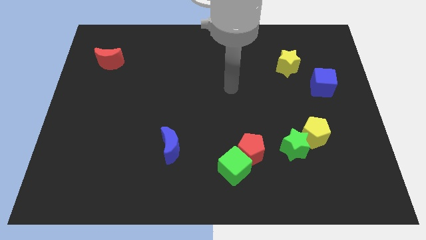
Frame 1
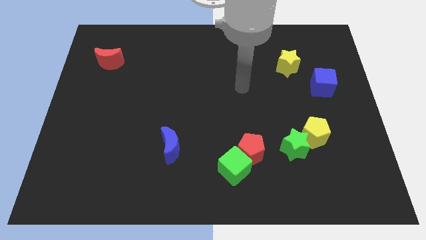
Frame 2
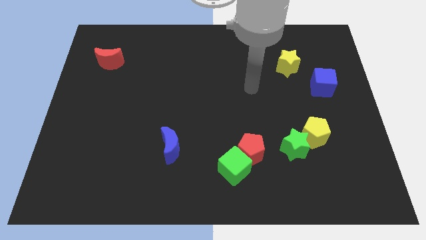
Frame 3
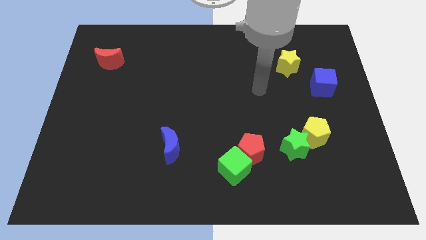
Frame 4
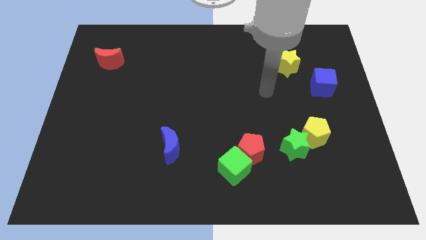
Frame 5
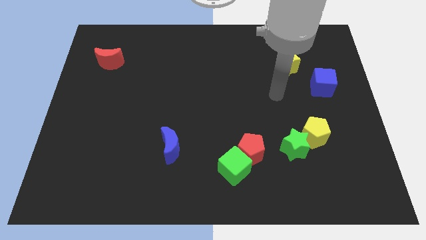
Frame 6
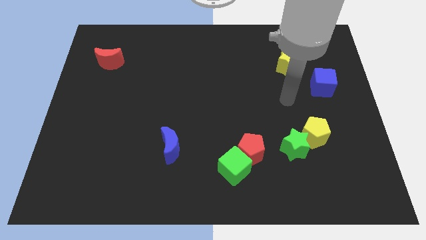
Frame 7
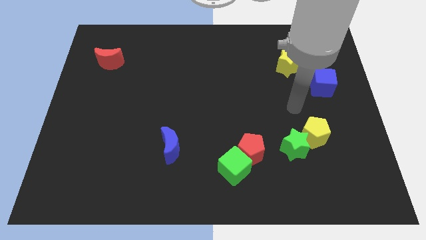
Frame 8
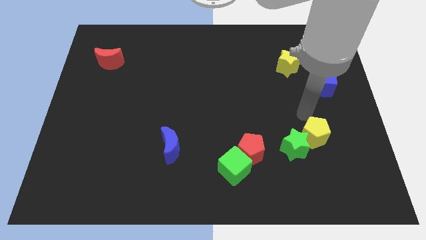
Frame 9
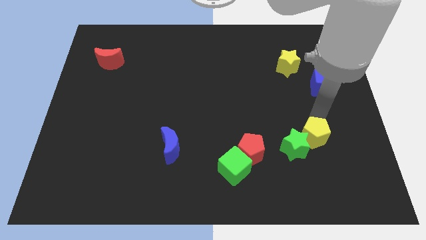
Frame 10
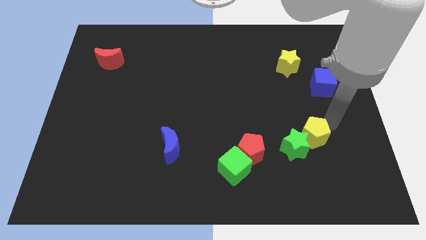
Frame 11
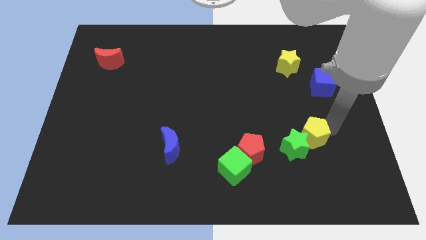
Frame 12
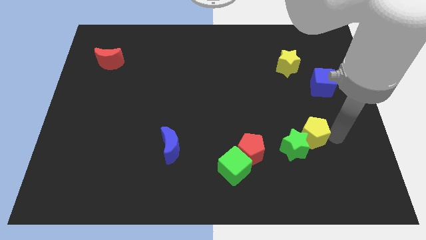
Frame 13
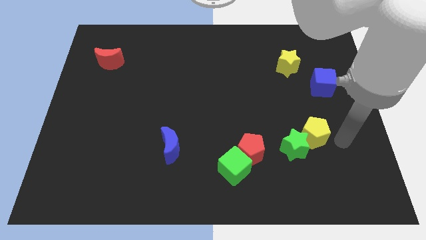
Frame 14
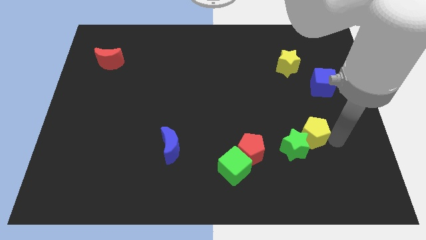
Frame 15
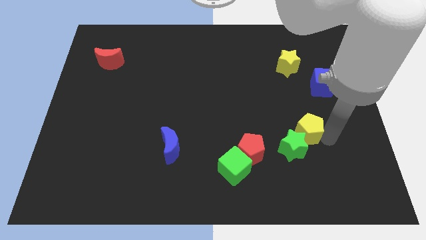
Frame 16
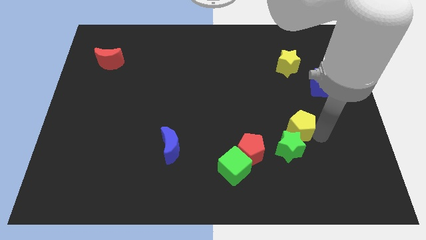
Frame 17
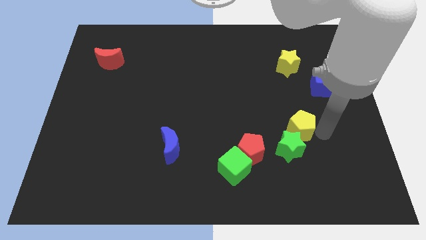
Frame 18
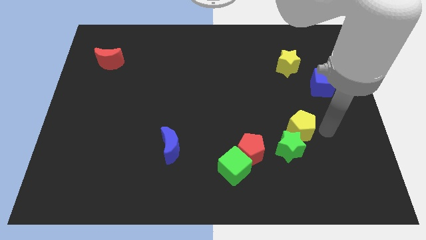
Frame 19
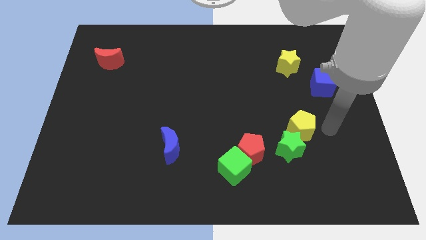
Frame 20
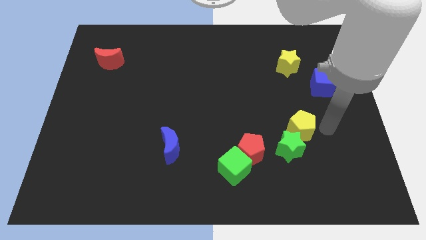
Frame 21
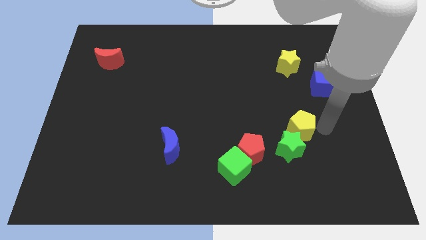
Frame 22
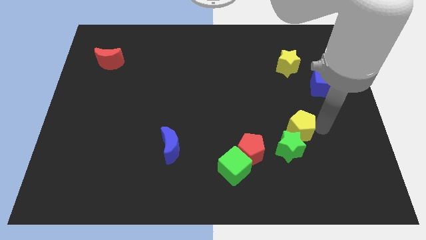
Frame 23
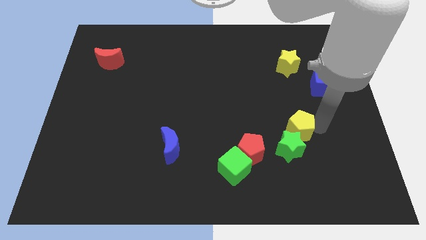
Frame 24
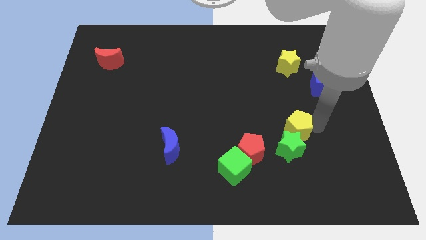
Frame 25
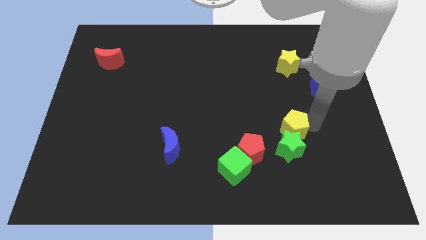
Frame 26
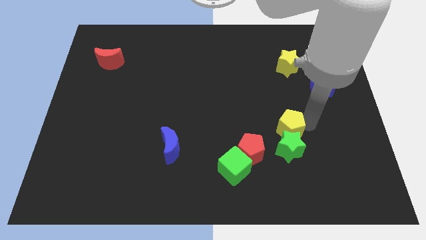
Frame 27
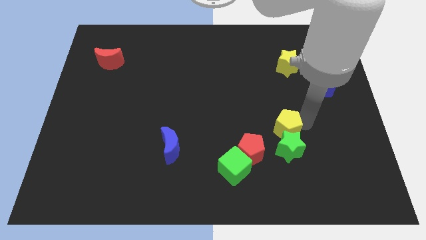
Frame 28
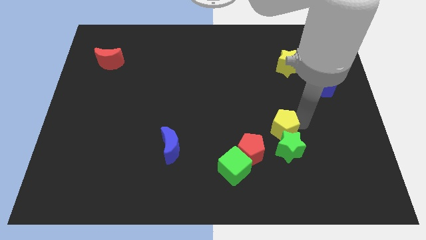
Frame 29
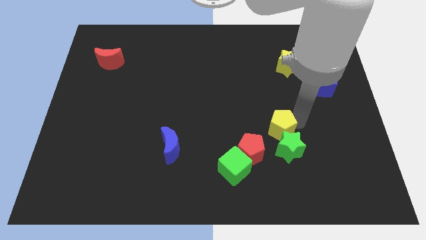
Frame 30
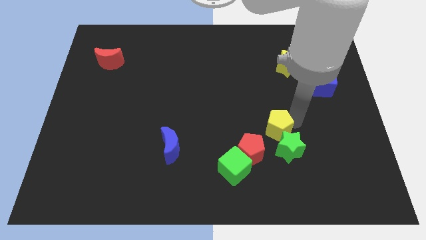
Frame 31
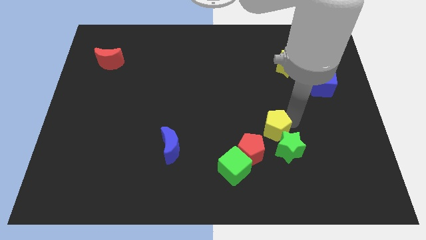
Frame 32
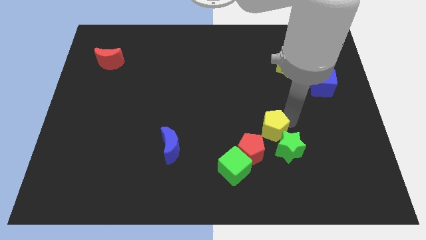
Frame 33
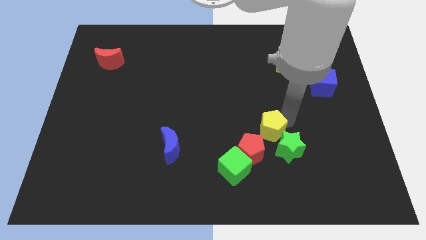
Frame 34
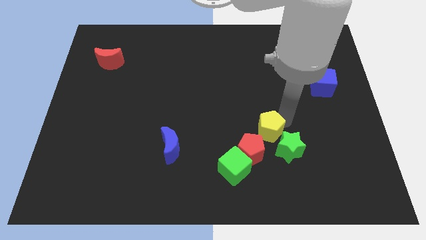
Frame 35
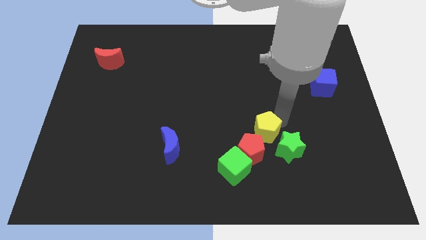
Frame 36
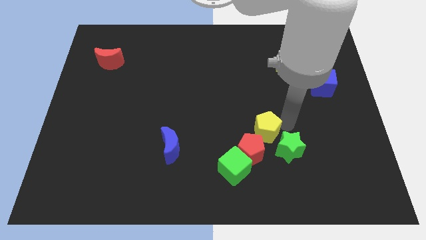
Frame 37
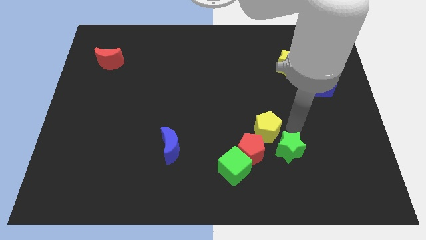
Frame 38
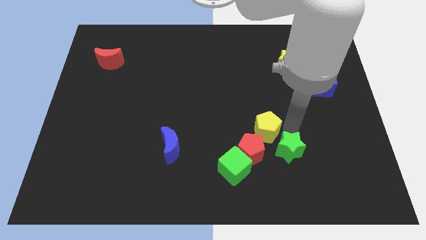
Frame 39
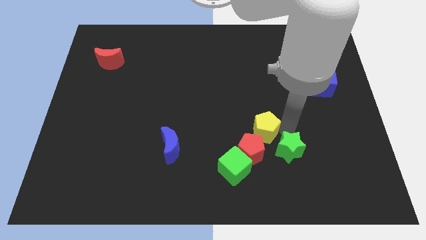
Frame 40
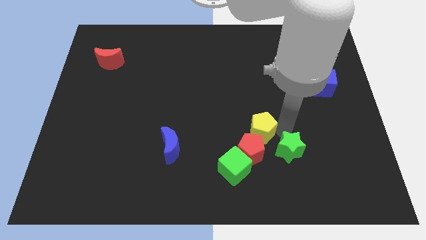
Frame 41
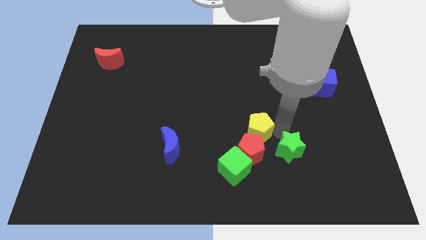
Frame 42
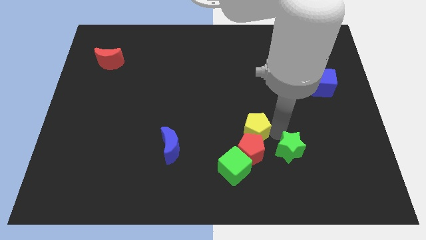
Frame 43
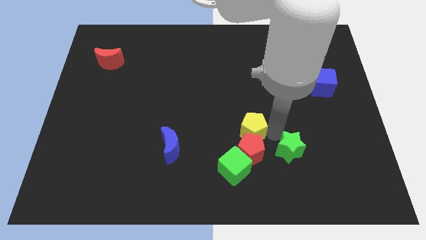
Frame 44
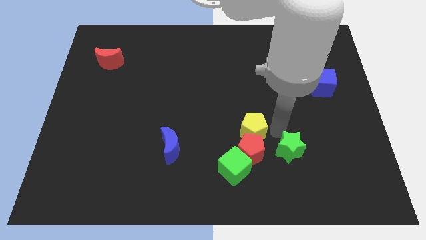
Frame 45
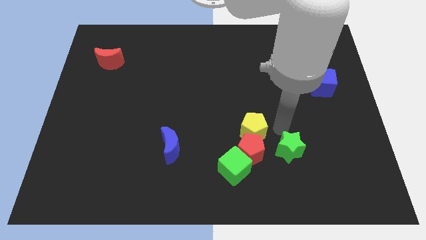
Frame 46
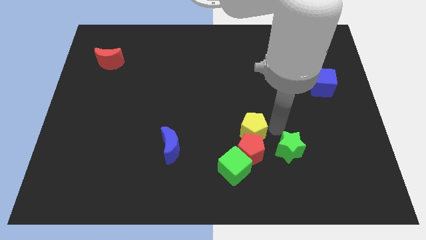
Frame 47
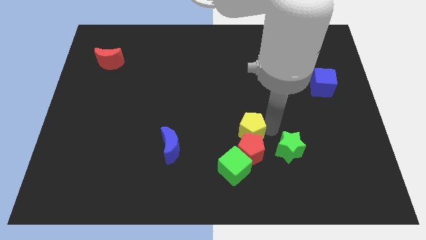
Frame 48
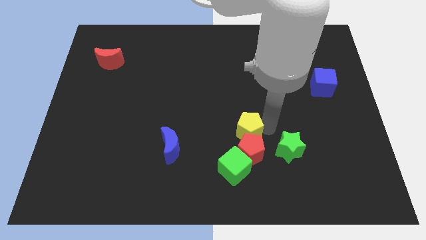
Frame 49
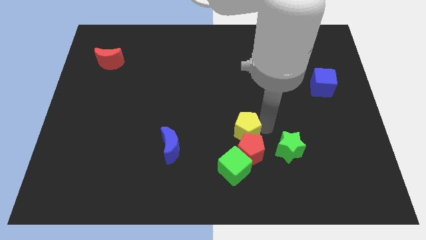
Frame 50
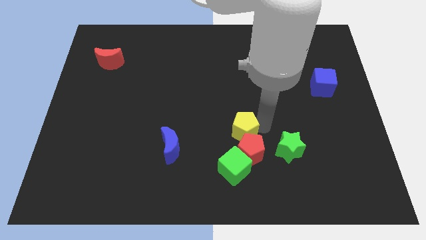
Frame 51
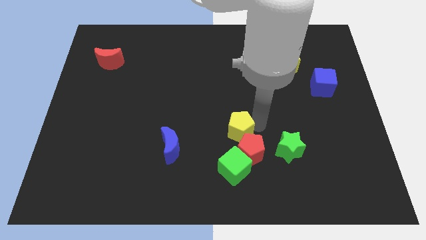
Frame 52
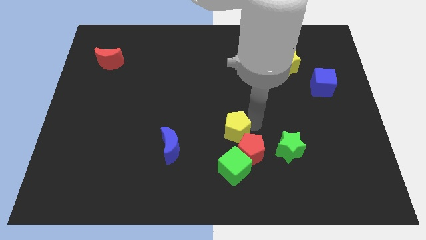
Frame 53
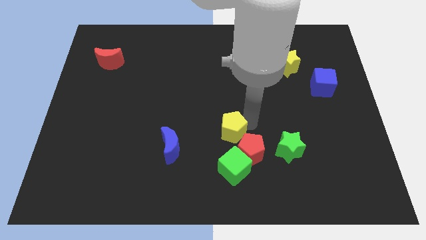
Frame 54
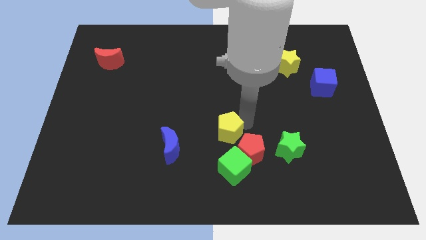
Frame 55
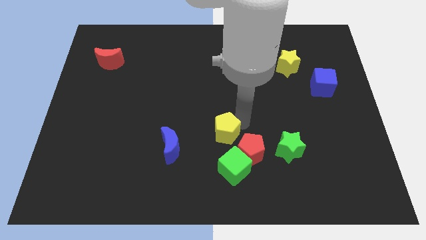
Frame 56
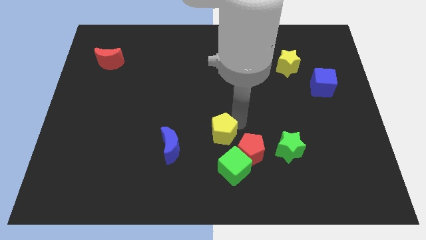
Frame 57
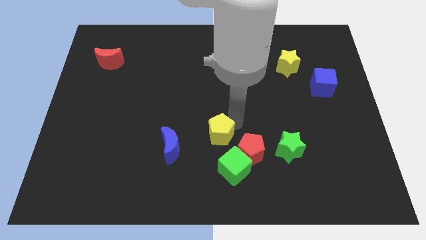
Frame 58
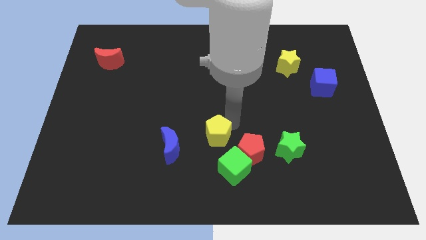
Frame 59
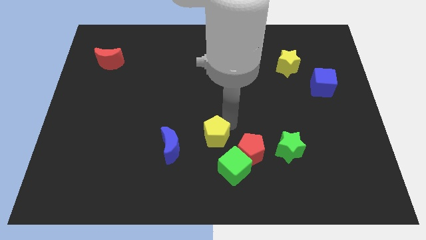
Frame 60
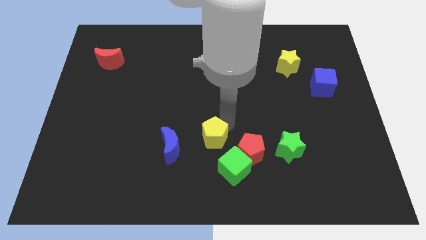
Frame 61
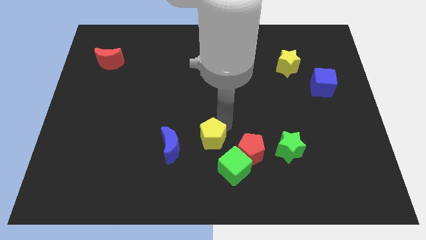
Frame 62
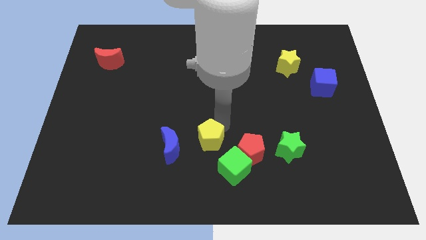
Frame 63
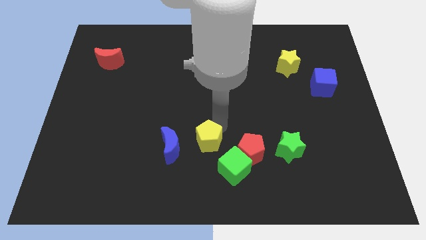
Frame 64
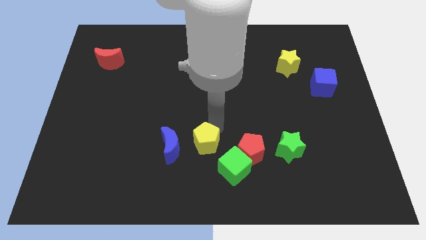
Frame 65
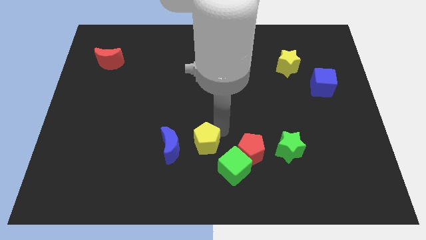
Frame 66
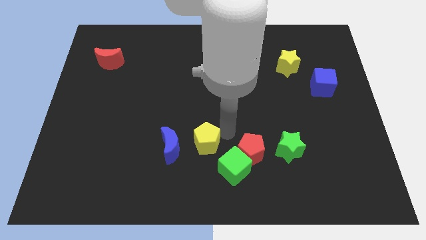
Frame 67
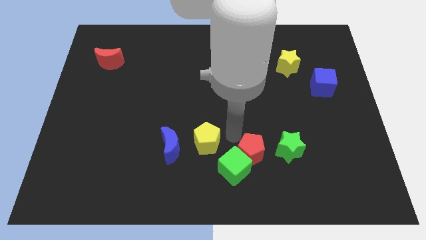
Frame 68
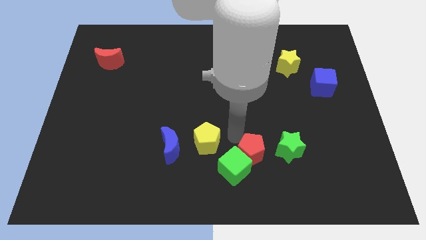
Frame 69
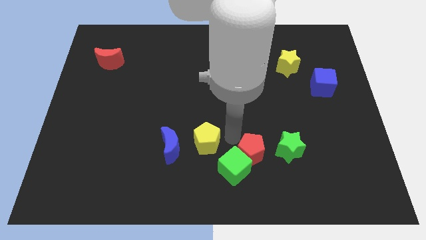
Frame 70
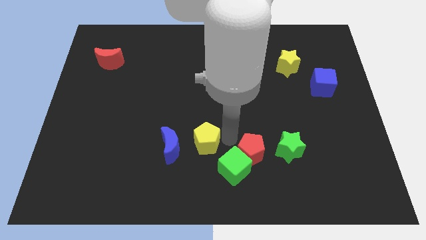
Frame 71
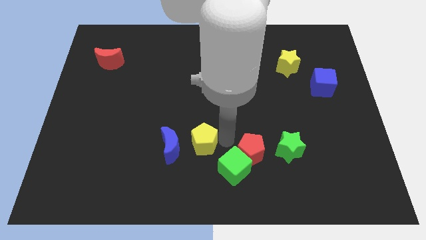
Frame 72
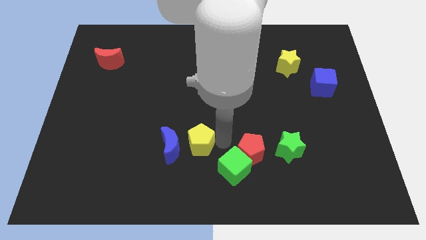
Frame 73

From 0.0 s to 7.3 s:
move the yellow pentagon close to the blue moon
